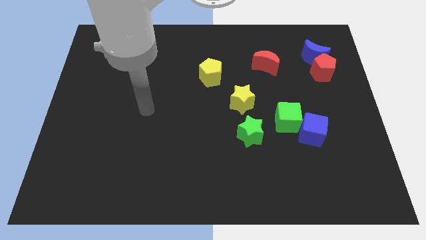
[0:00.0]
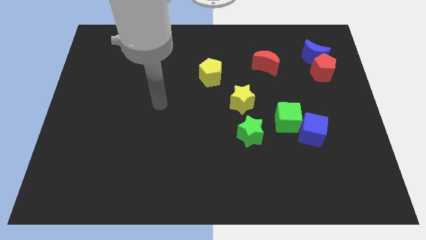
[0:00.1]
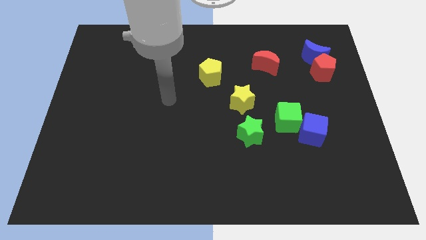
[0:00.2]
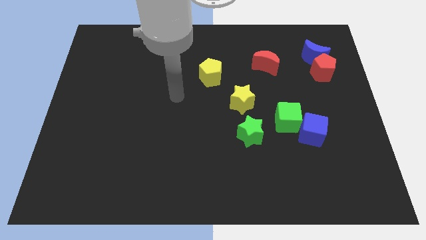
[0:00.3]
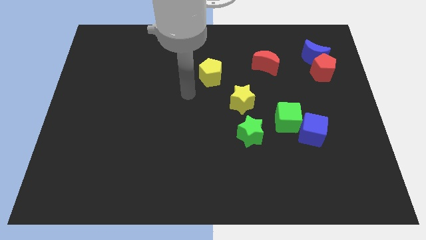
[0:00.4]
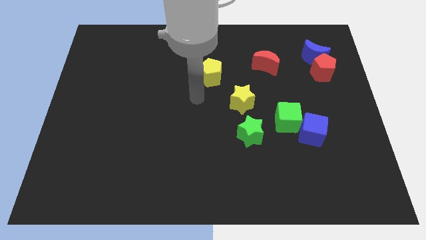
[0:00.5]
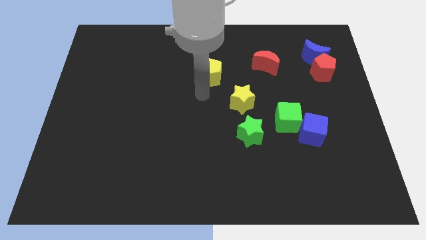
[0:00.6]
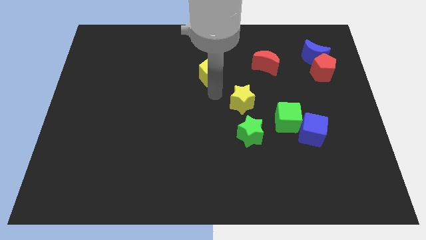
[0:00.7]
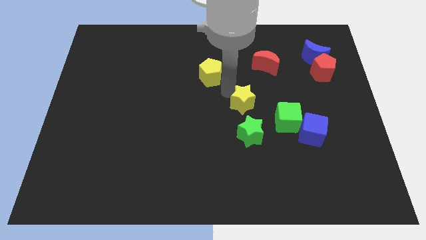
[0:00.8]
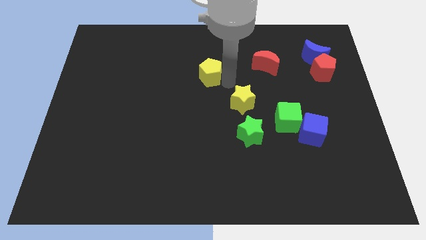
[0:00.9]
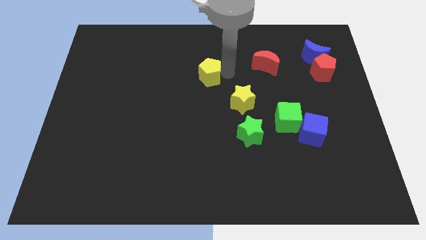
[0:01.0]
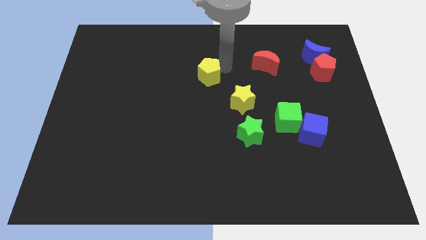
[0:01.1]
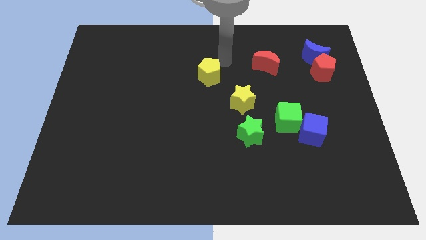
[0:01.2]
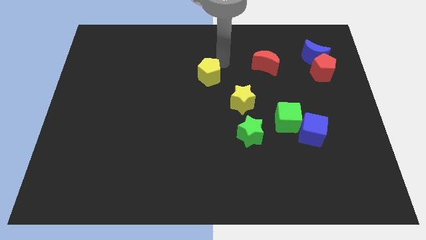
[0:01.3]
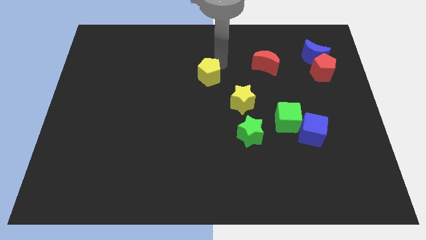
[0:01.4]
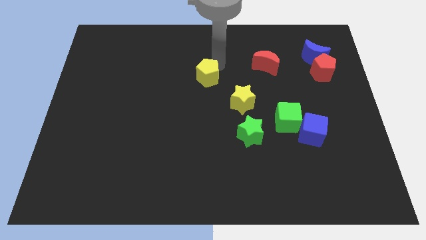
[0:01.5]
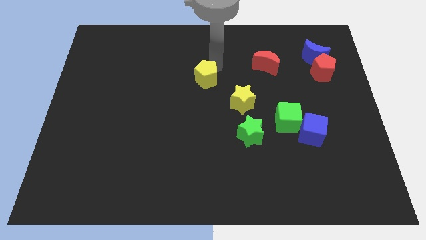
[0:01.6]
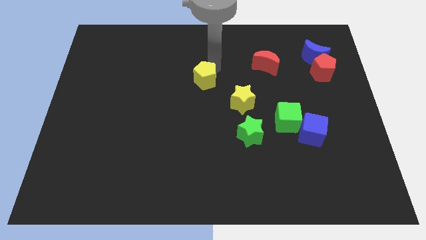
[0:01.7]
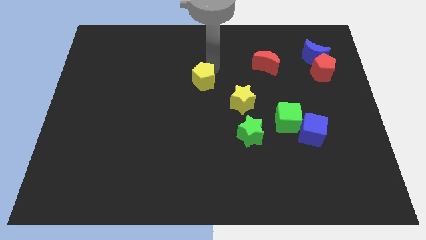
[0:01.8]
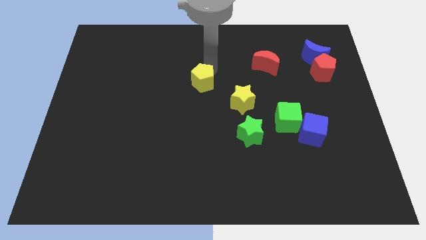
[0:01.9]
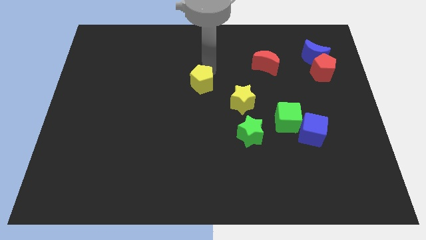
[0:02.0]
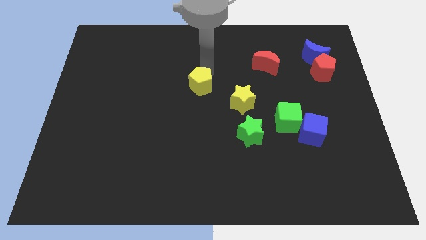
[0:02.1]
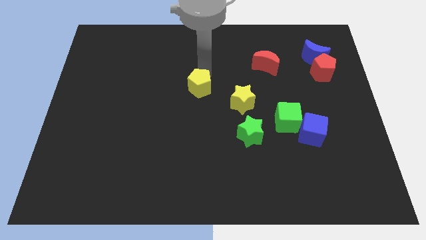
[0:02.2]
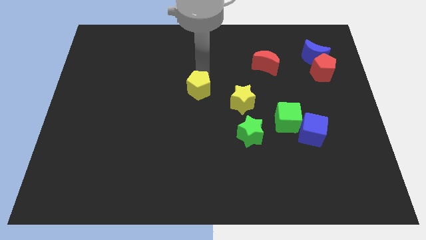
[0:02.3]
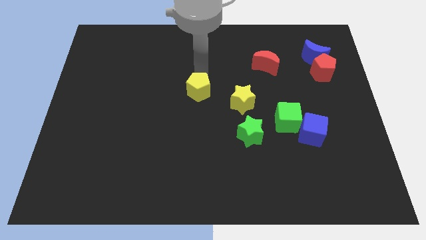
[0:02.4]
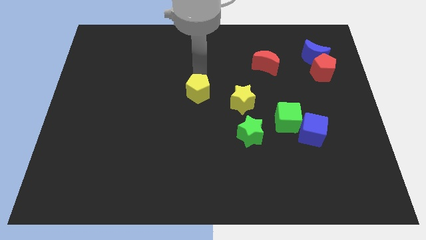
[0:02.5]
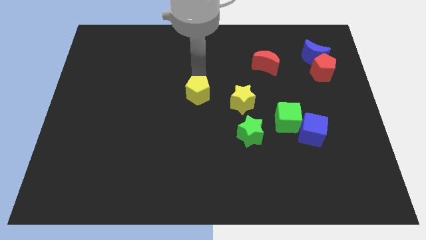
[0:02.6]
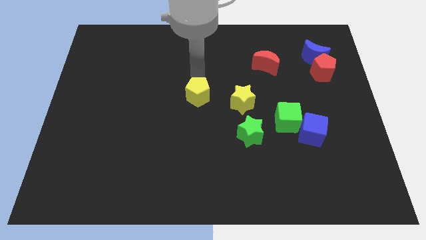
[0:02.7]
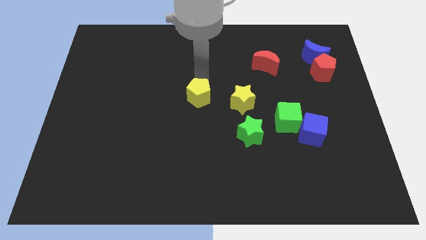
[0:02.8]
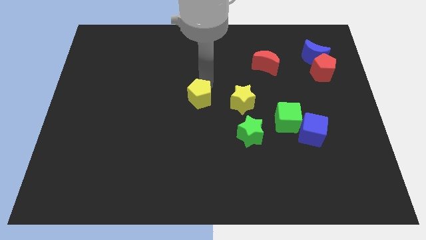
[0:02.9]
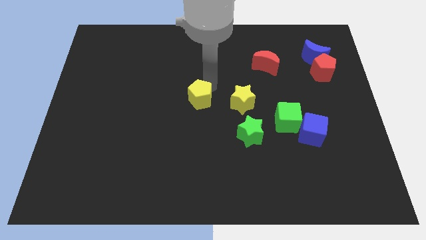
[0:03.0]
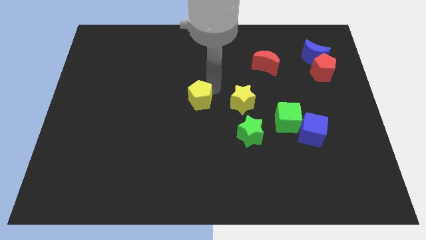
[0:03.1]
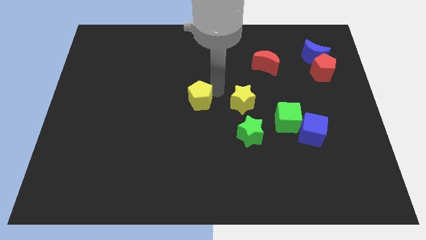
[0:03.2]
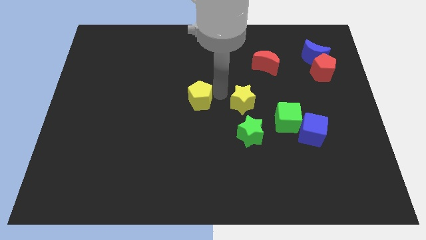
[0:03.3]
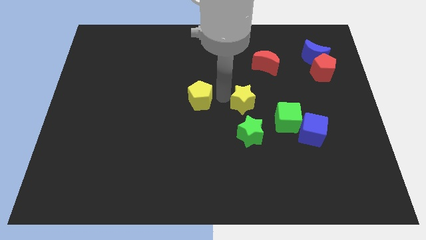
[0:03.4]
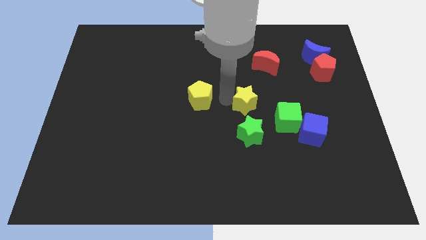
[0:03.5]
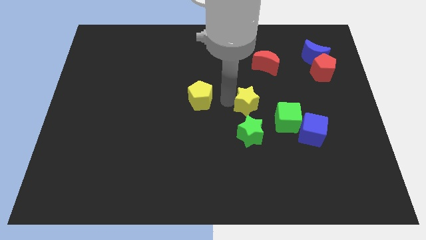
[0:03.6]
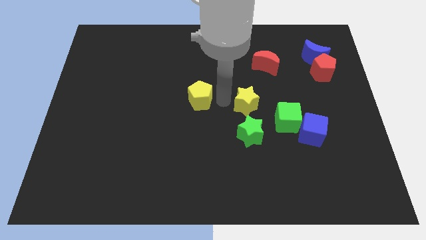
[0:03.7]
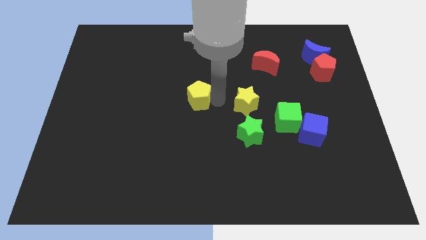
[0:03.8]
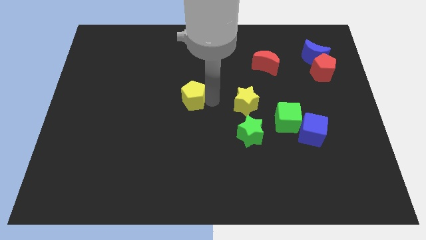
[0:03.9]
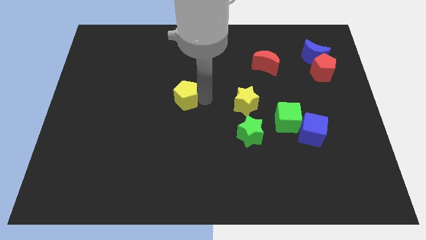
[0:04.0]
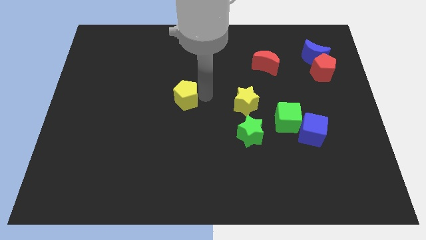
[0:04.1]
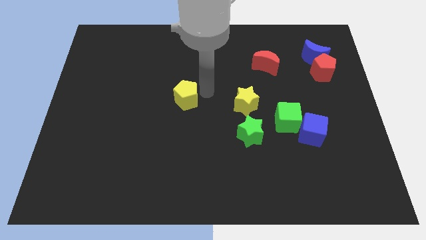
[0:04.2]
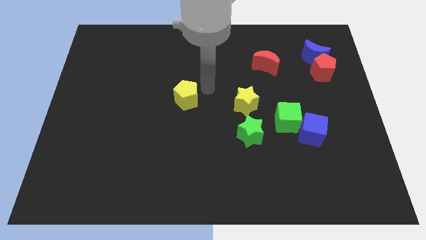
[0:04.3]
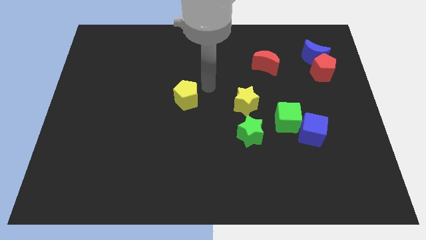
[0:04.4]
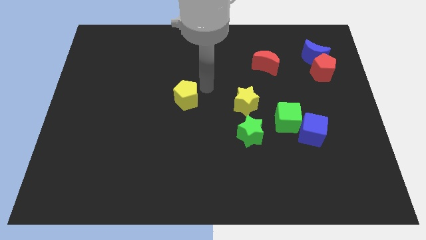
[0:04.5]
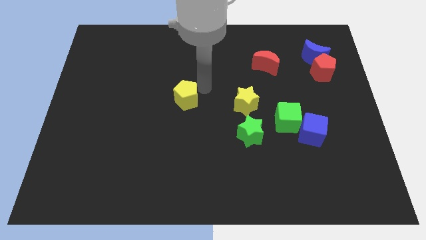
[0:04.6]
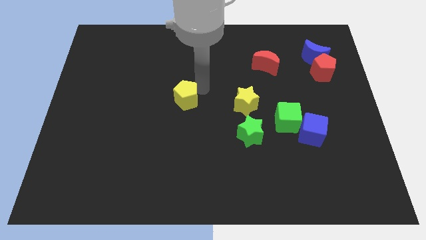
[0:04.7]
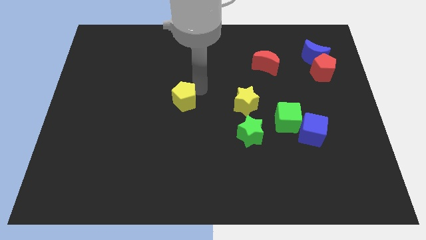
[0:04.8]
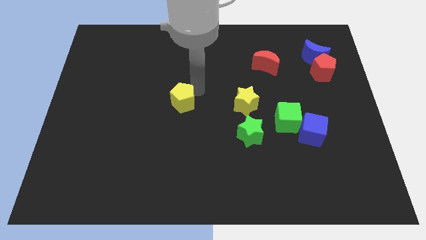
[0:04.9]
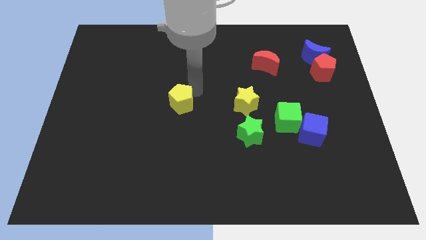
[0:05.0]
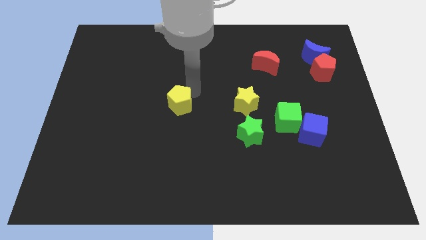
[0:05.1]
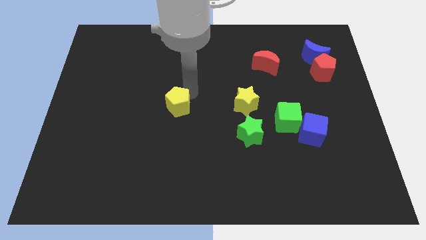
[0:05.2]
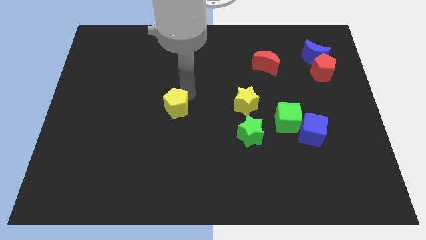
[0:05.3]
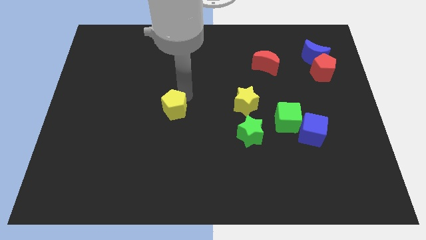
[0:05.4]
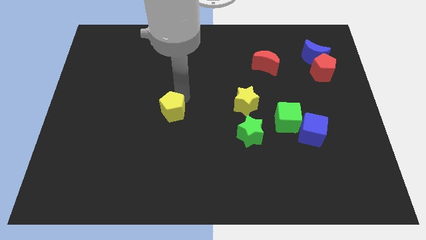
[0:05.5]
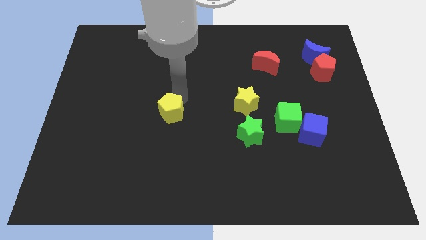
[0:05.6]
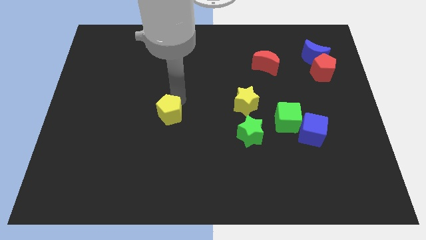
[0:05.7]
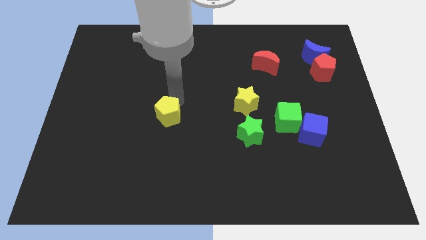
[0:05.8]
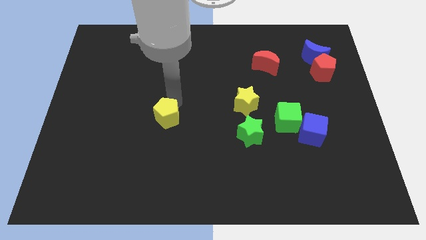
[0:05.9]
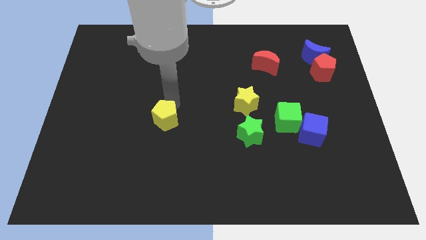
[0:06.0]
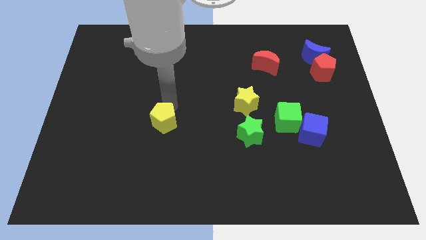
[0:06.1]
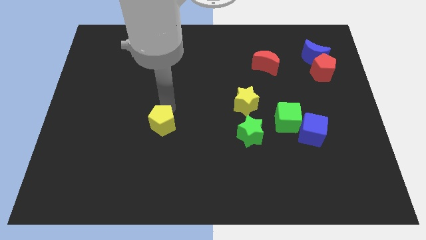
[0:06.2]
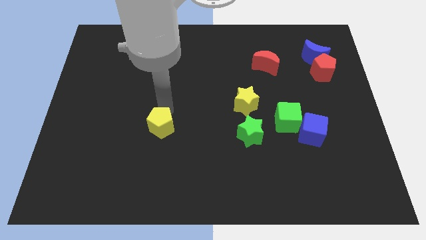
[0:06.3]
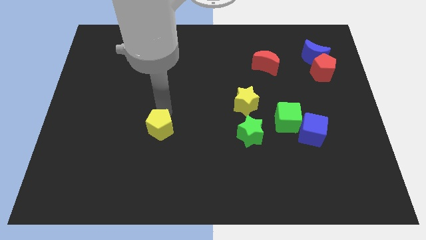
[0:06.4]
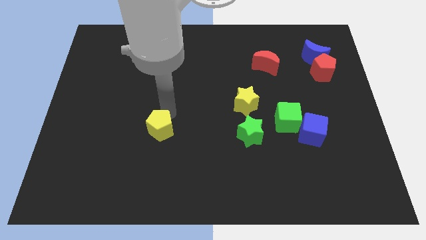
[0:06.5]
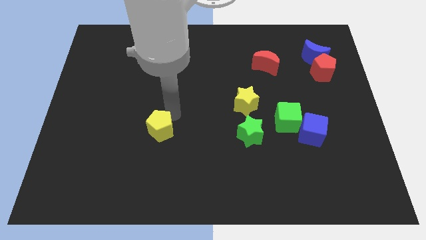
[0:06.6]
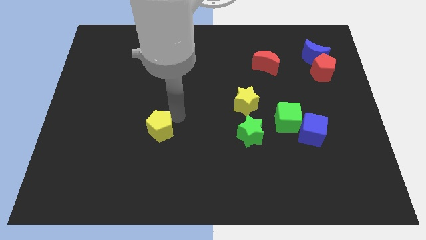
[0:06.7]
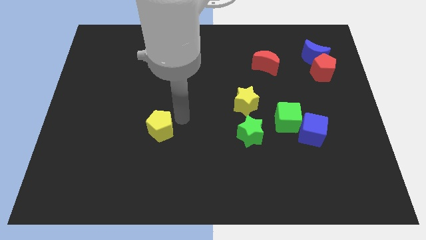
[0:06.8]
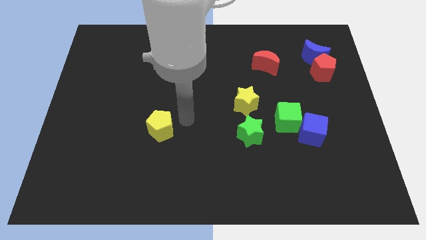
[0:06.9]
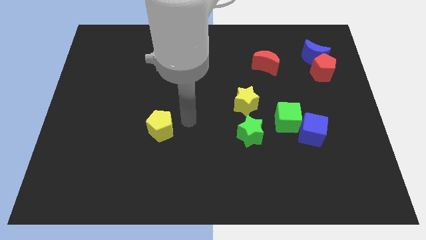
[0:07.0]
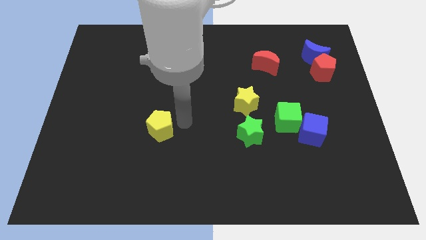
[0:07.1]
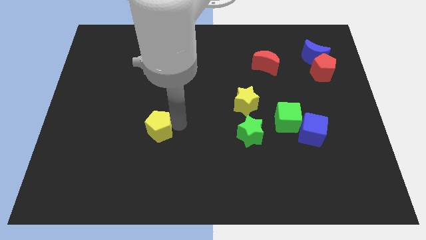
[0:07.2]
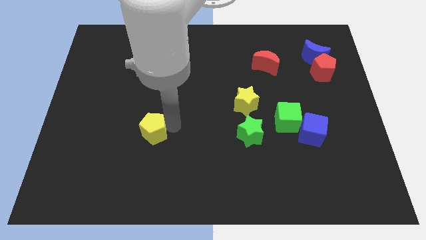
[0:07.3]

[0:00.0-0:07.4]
move the yellow pentagon diagonally downwards and left
